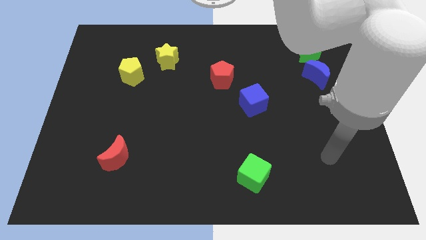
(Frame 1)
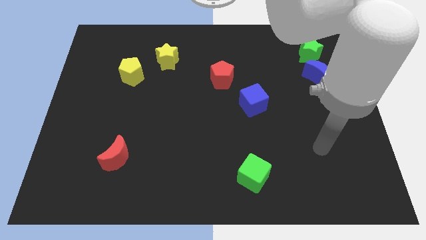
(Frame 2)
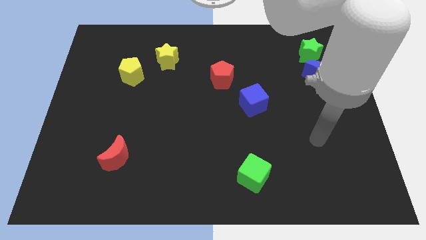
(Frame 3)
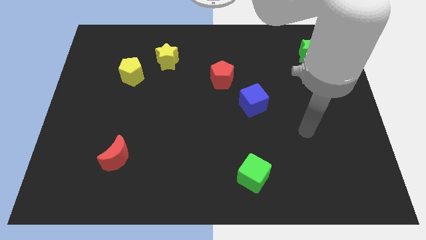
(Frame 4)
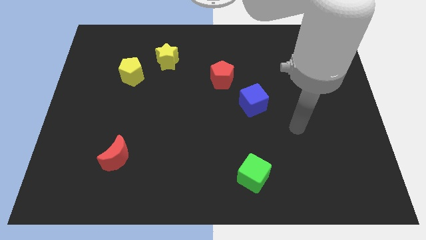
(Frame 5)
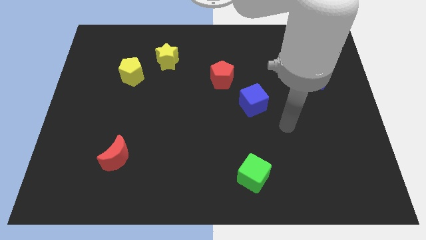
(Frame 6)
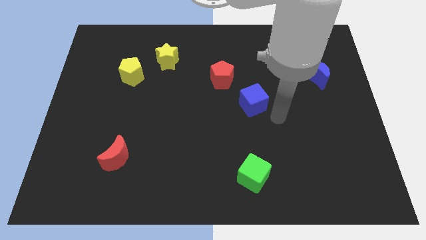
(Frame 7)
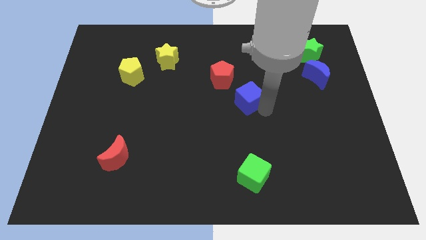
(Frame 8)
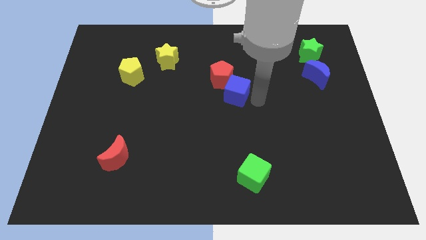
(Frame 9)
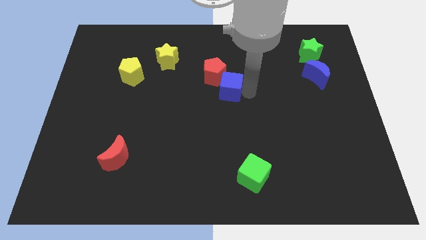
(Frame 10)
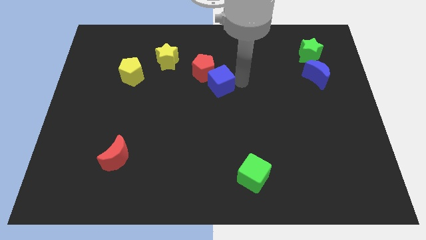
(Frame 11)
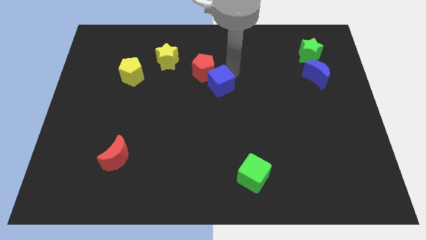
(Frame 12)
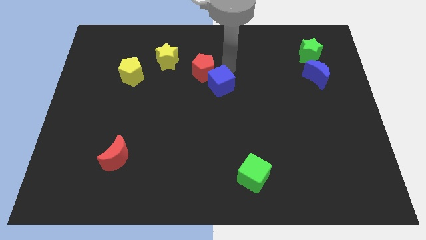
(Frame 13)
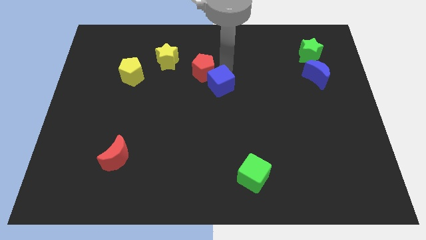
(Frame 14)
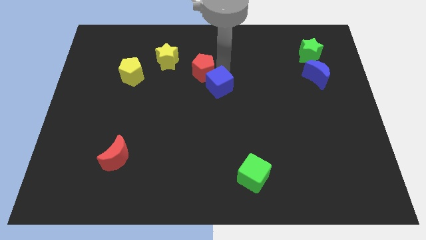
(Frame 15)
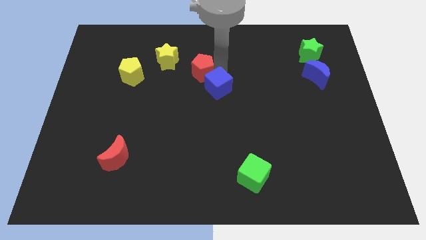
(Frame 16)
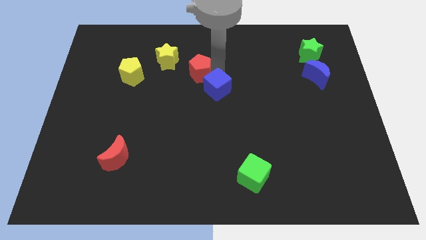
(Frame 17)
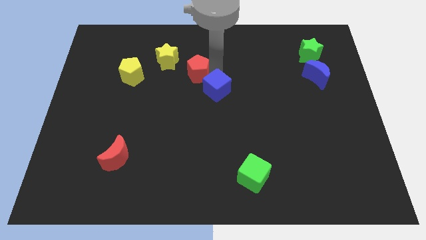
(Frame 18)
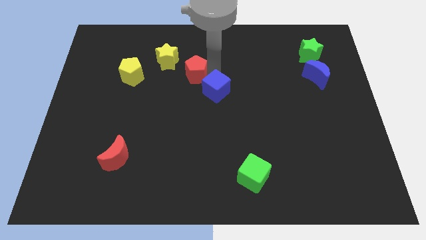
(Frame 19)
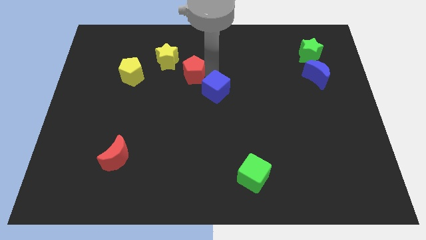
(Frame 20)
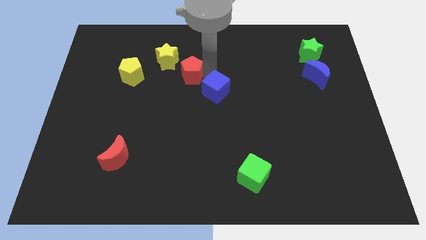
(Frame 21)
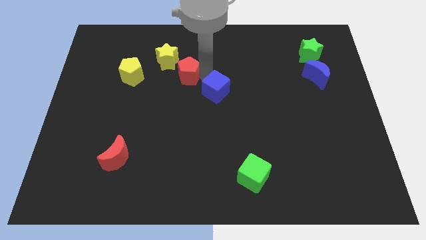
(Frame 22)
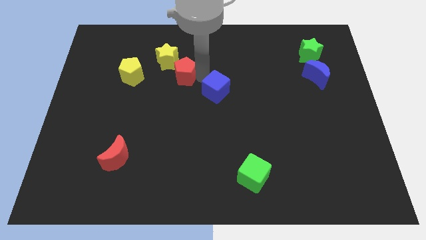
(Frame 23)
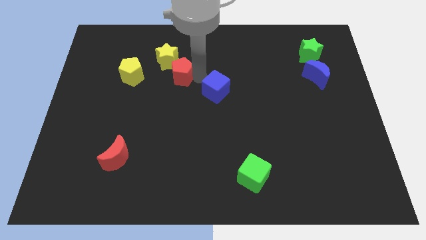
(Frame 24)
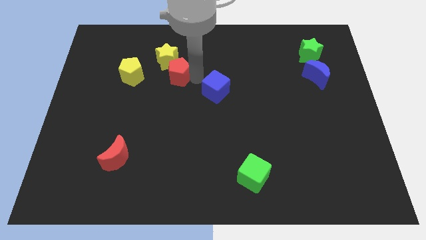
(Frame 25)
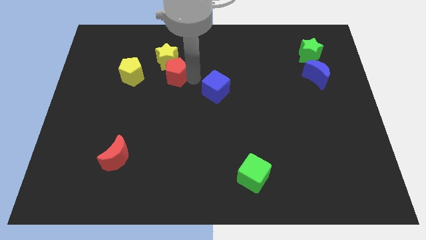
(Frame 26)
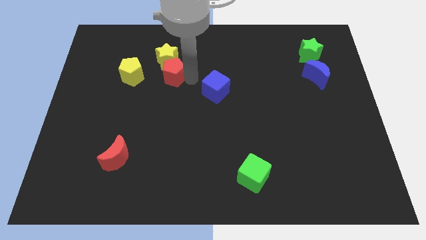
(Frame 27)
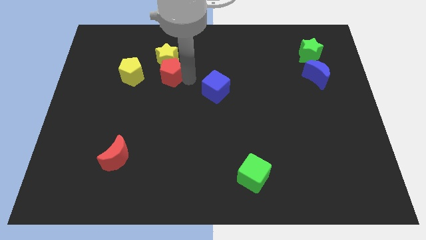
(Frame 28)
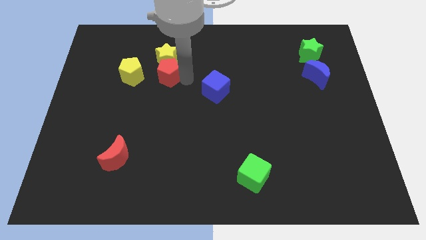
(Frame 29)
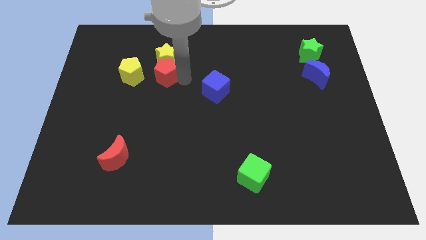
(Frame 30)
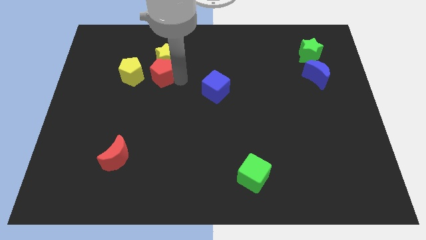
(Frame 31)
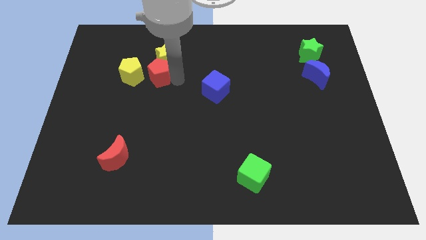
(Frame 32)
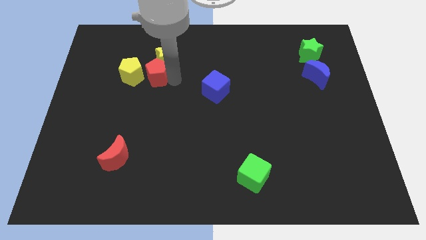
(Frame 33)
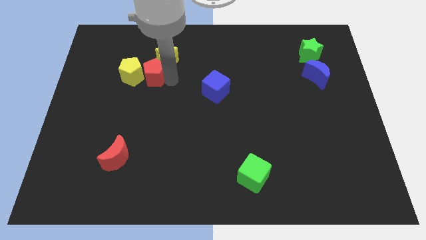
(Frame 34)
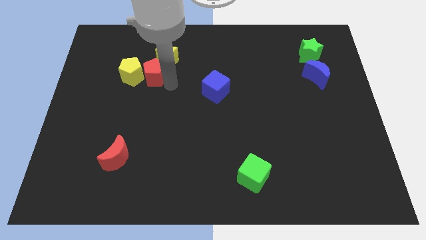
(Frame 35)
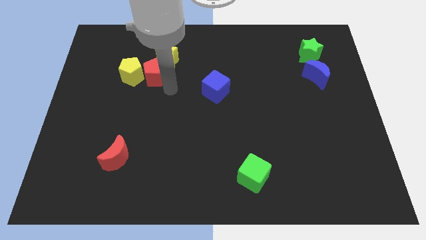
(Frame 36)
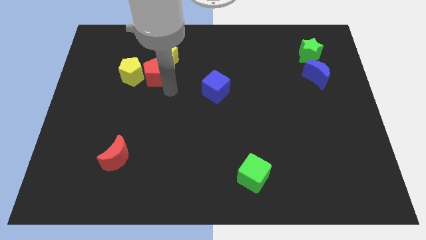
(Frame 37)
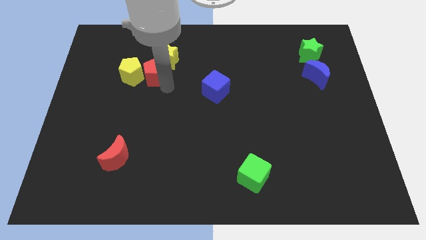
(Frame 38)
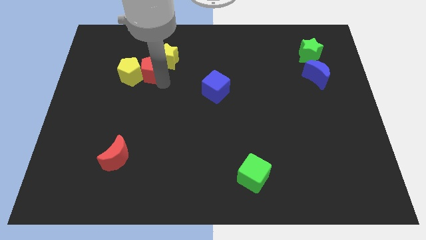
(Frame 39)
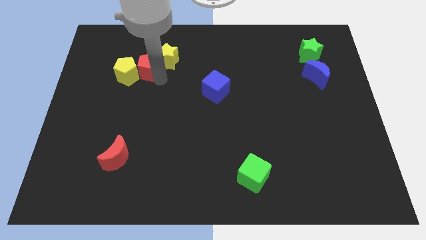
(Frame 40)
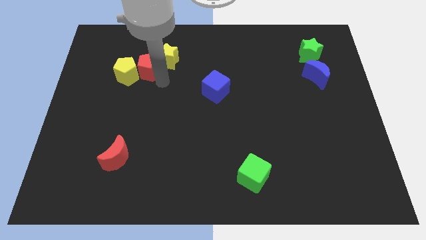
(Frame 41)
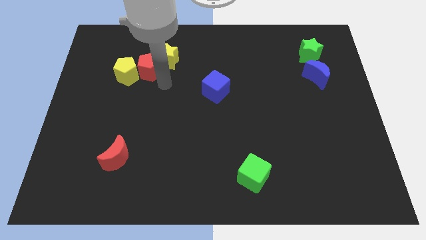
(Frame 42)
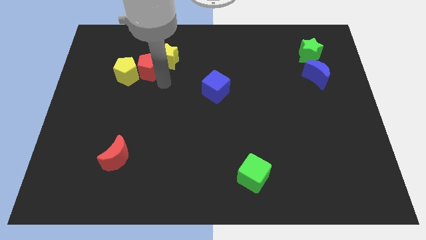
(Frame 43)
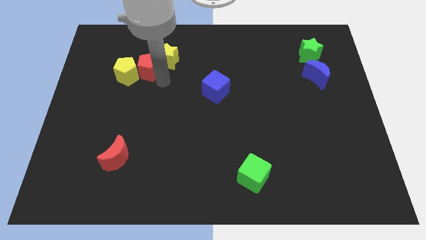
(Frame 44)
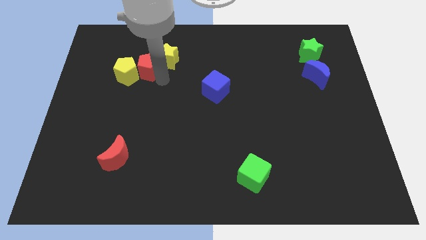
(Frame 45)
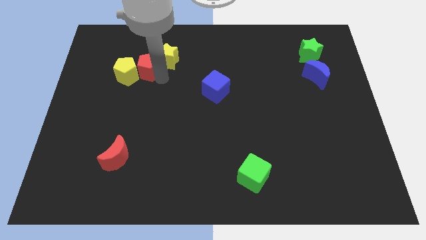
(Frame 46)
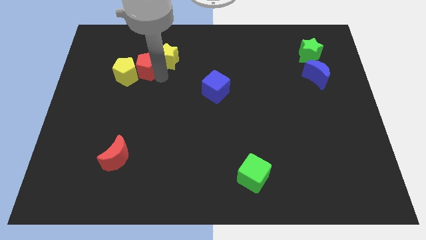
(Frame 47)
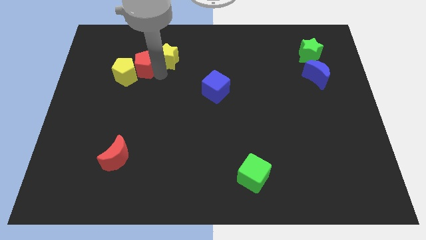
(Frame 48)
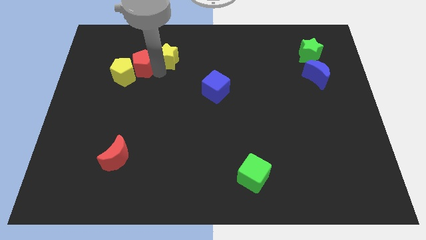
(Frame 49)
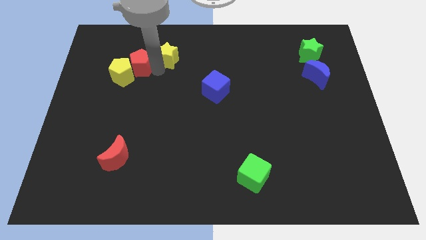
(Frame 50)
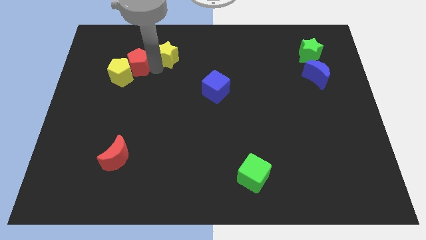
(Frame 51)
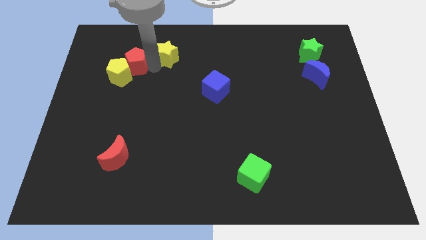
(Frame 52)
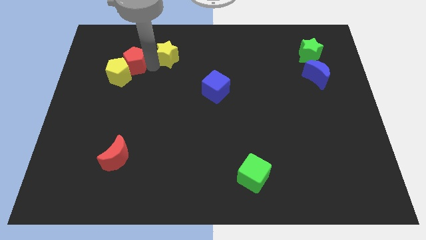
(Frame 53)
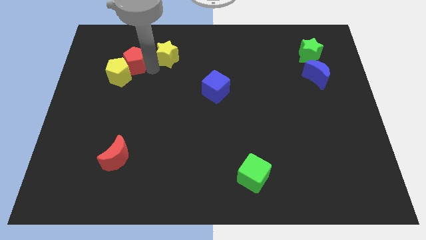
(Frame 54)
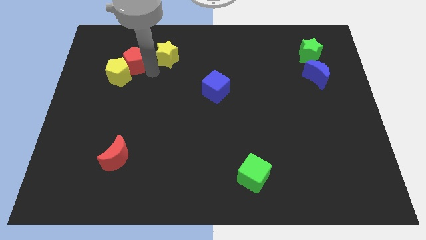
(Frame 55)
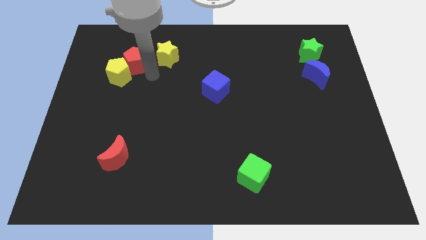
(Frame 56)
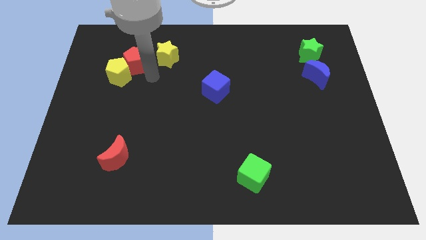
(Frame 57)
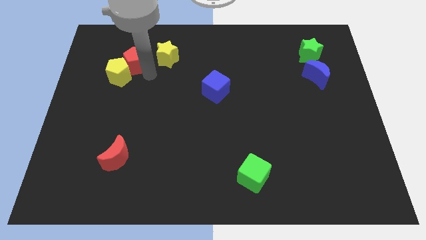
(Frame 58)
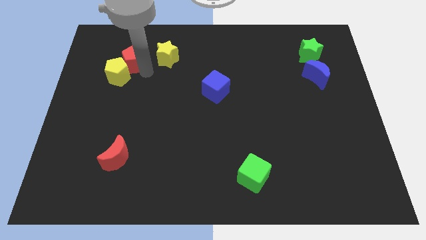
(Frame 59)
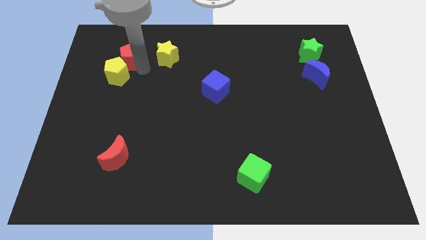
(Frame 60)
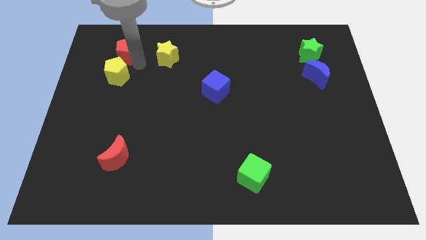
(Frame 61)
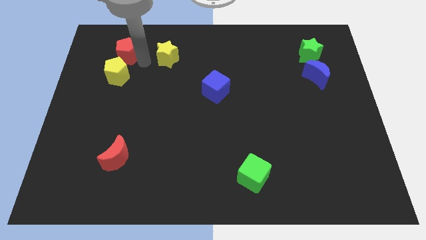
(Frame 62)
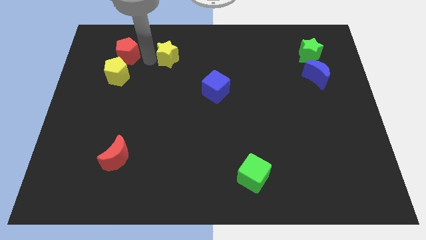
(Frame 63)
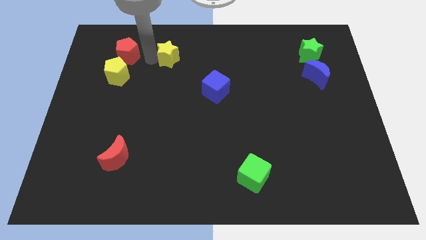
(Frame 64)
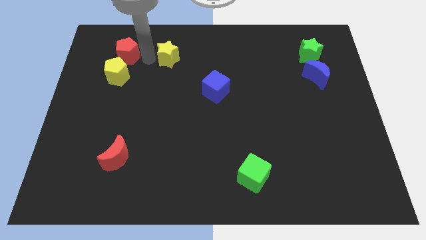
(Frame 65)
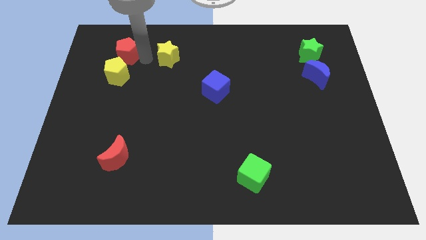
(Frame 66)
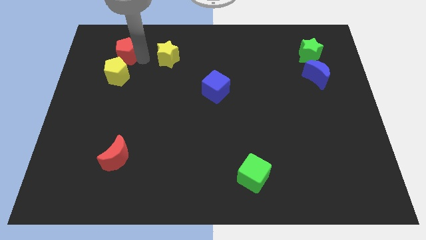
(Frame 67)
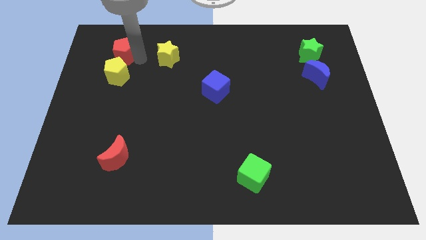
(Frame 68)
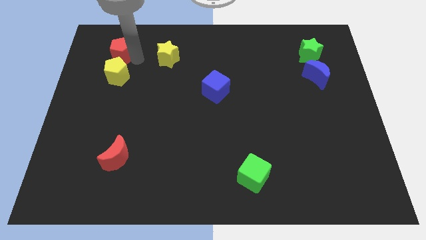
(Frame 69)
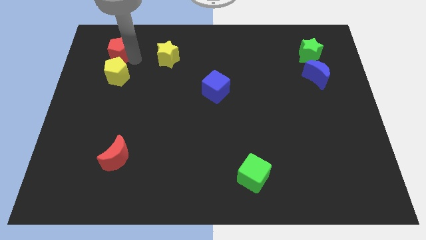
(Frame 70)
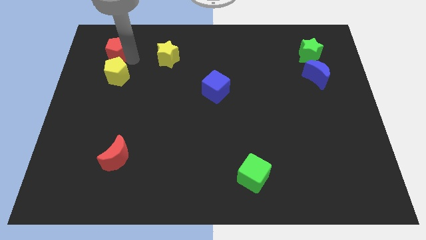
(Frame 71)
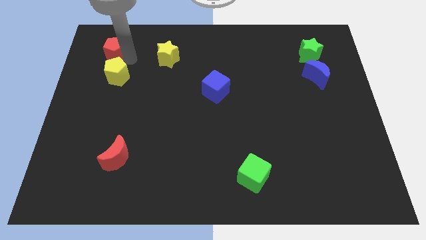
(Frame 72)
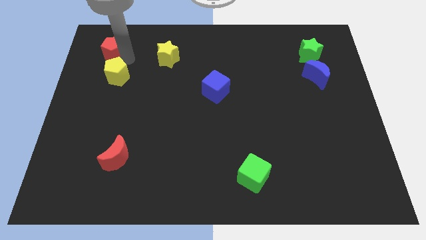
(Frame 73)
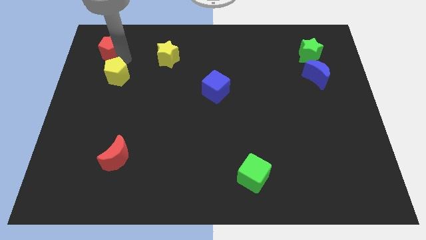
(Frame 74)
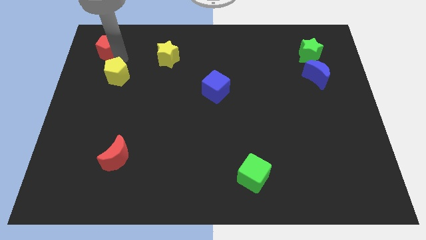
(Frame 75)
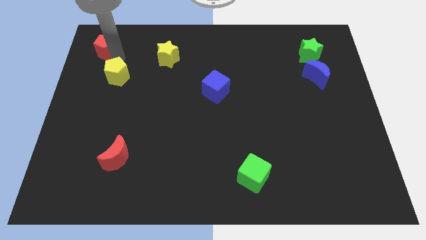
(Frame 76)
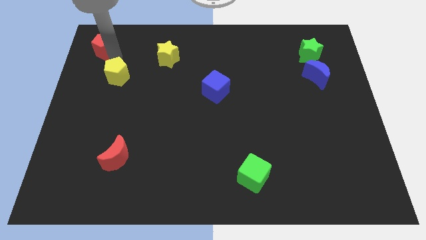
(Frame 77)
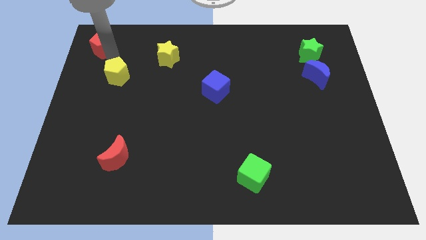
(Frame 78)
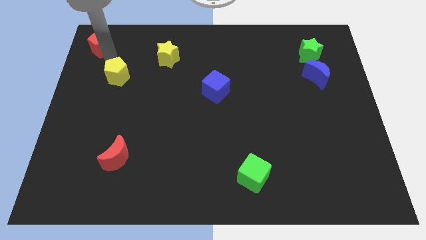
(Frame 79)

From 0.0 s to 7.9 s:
put the red pentagon to the top left of the board
